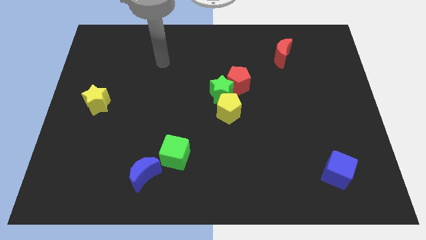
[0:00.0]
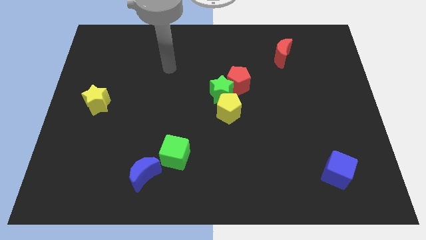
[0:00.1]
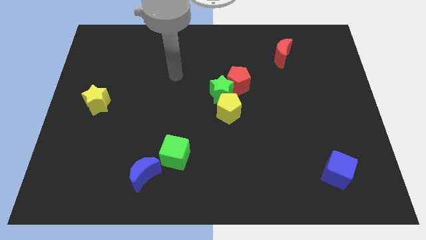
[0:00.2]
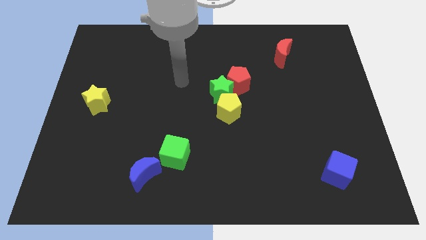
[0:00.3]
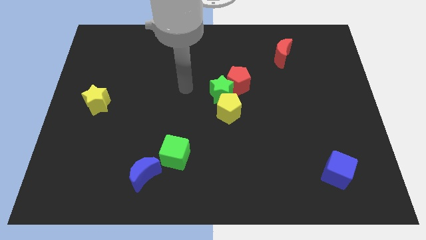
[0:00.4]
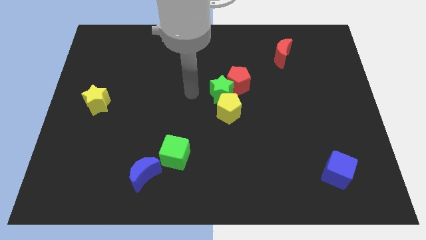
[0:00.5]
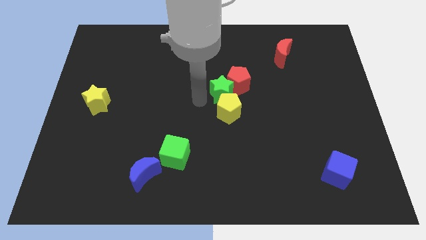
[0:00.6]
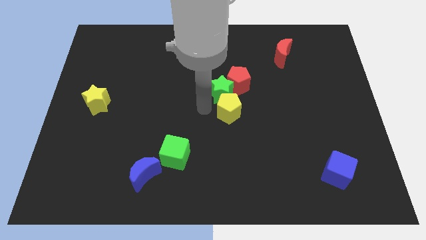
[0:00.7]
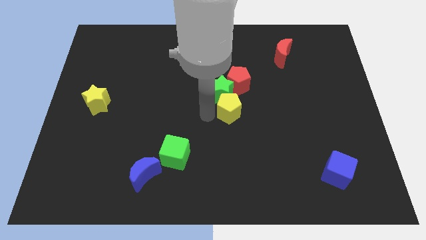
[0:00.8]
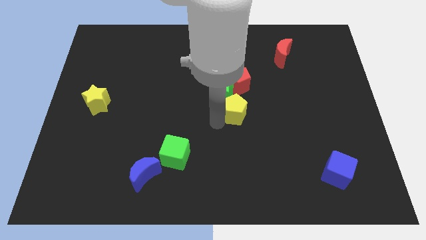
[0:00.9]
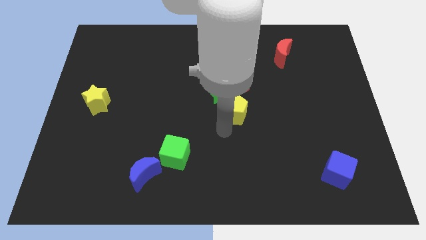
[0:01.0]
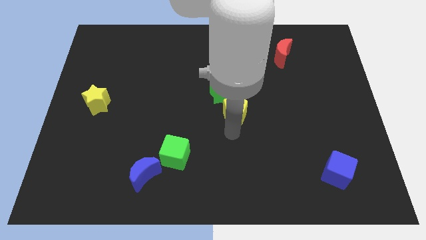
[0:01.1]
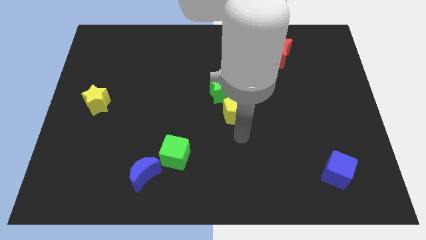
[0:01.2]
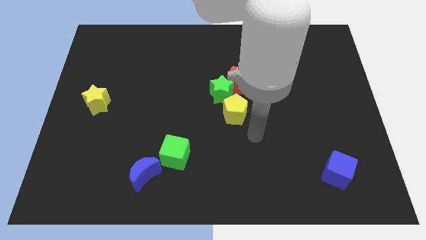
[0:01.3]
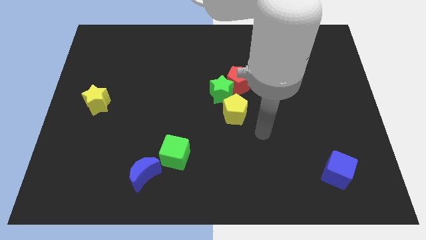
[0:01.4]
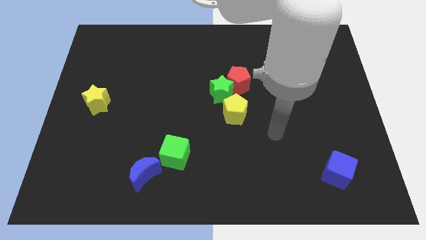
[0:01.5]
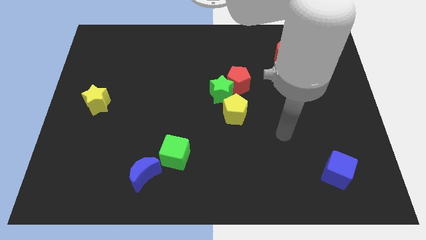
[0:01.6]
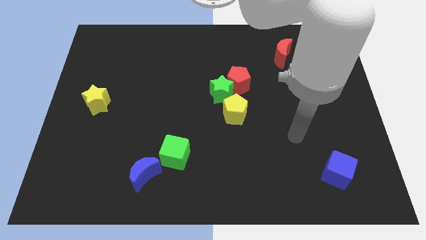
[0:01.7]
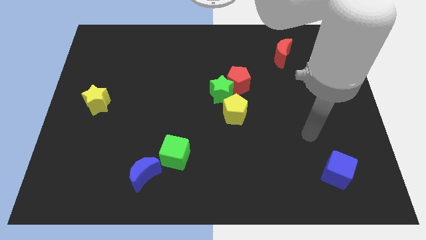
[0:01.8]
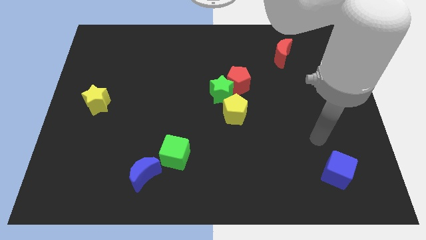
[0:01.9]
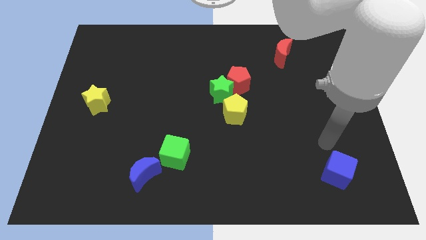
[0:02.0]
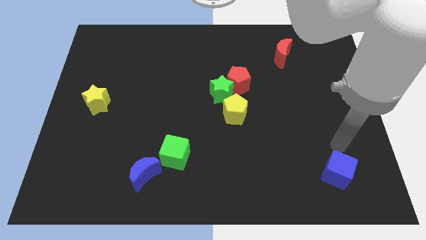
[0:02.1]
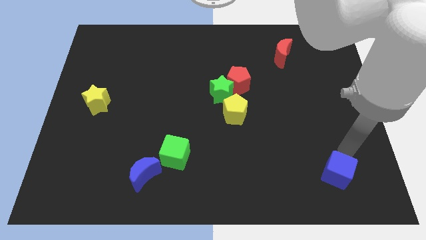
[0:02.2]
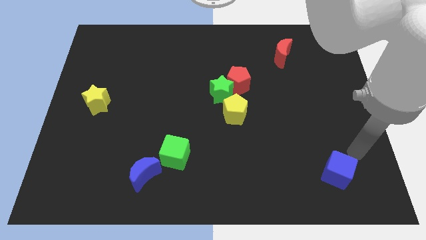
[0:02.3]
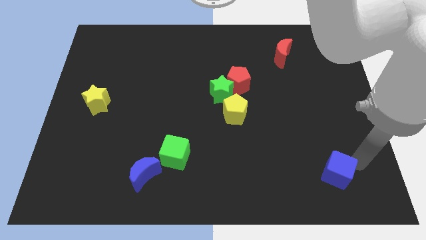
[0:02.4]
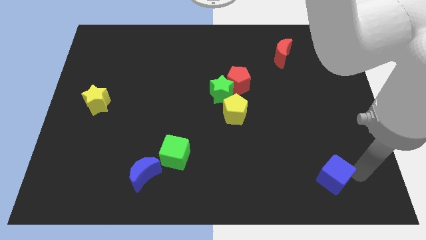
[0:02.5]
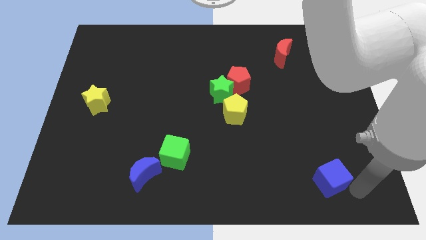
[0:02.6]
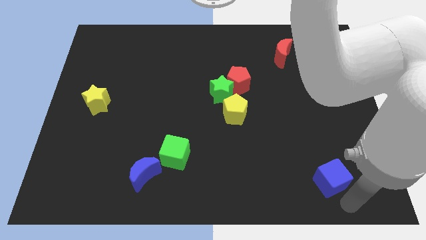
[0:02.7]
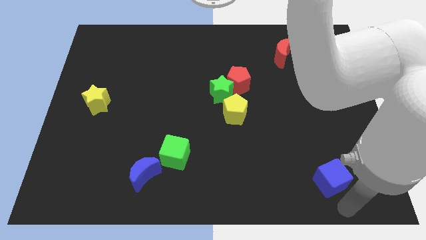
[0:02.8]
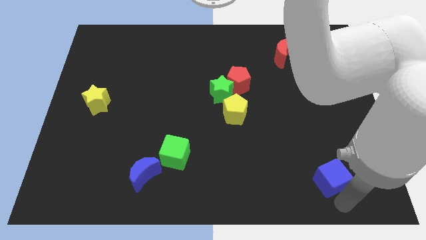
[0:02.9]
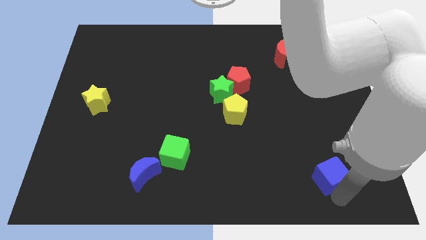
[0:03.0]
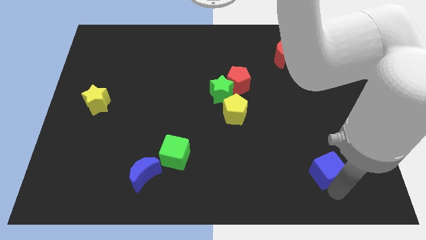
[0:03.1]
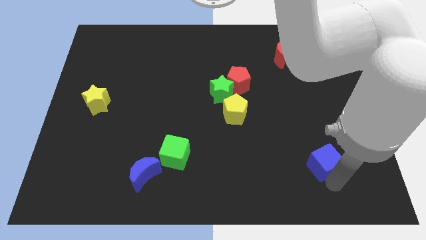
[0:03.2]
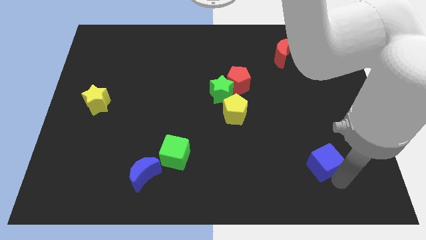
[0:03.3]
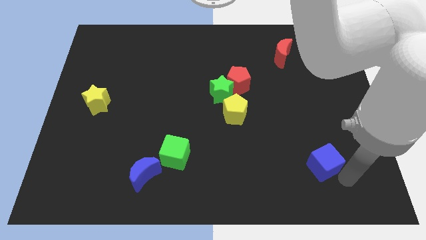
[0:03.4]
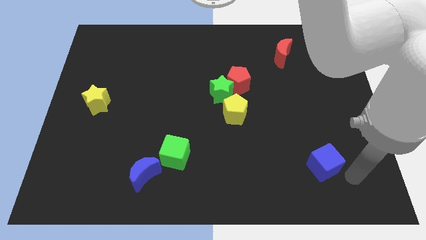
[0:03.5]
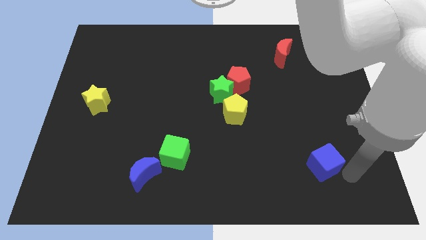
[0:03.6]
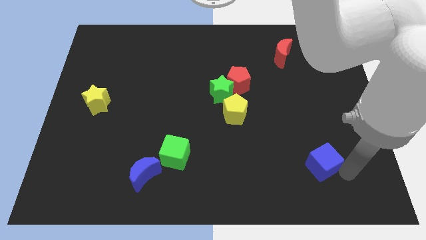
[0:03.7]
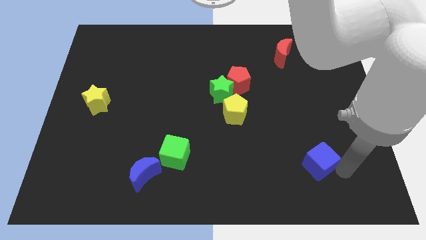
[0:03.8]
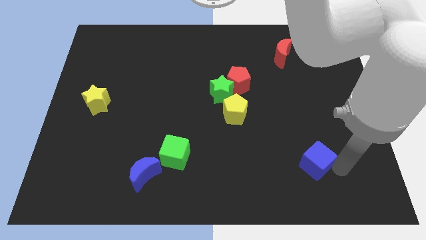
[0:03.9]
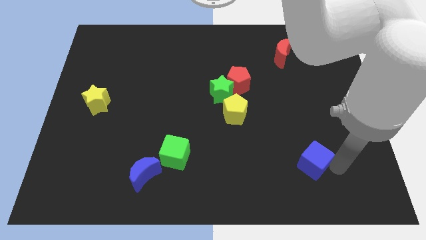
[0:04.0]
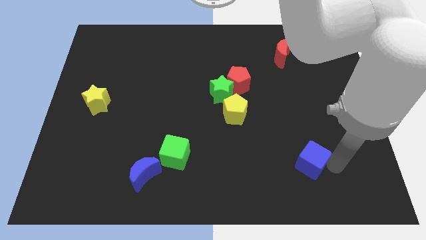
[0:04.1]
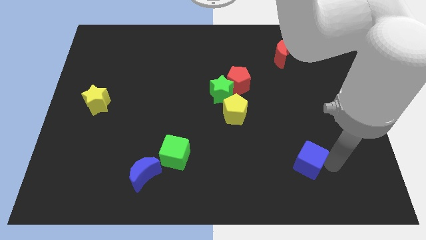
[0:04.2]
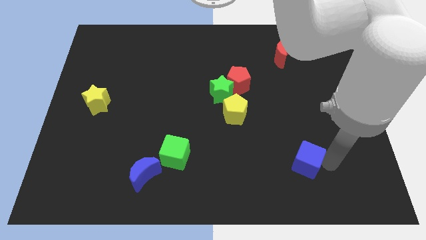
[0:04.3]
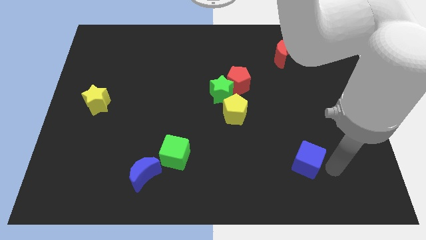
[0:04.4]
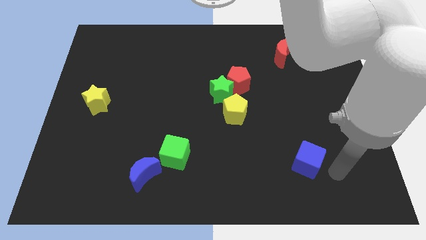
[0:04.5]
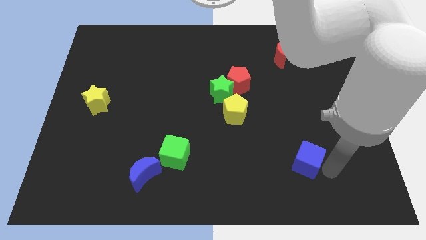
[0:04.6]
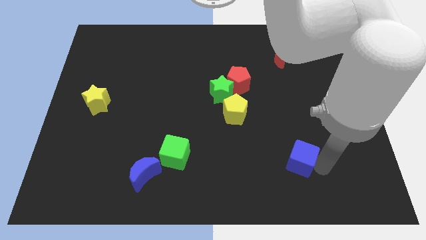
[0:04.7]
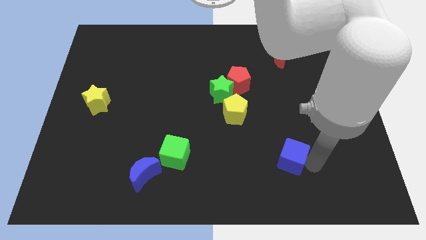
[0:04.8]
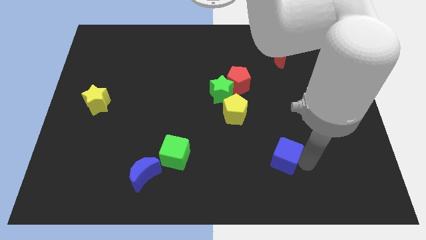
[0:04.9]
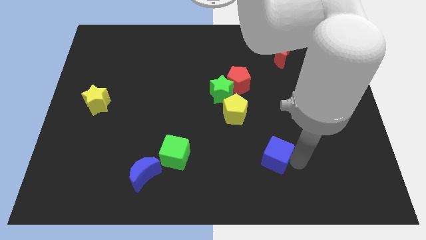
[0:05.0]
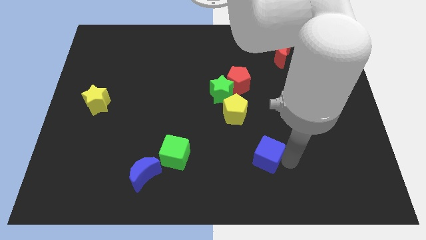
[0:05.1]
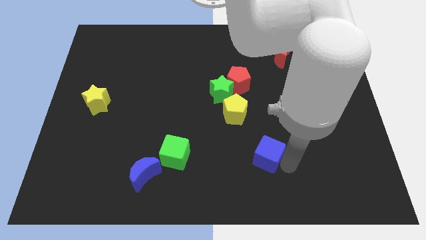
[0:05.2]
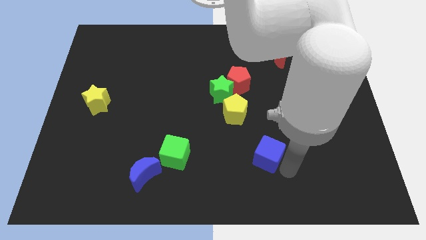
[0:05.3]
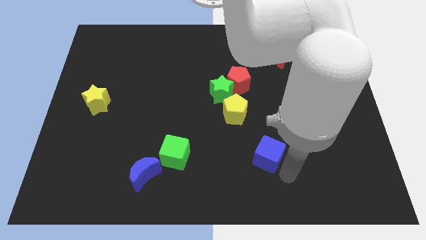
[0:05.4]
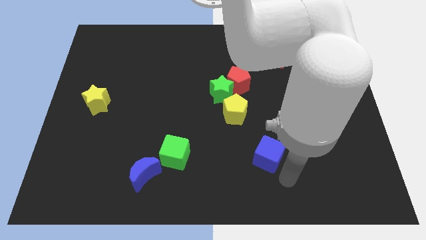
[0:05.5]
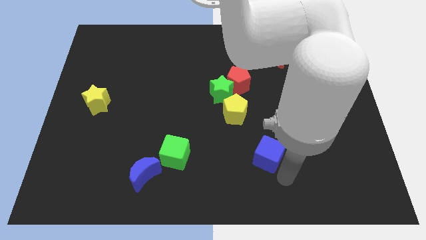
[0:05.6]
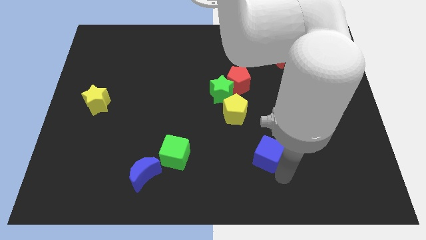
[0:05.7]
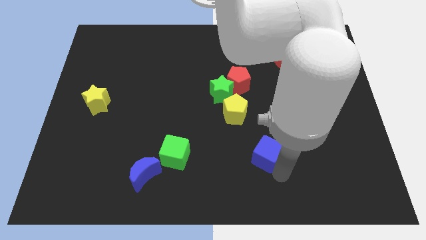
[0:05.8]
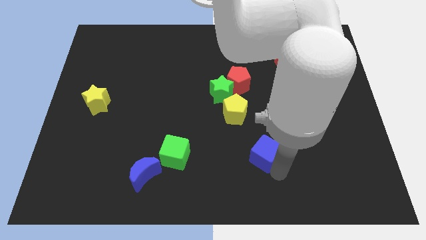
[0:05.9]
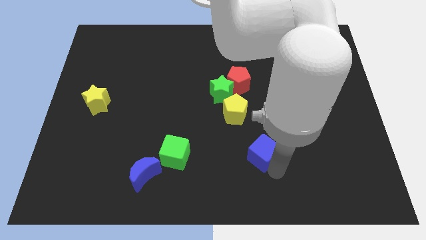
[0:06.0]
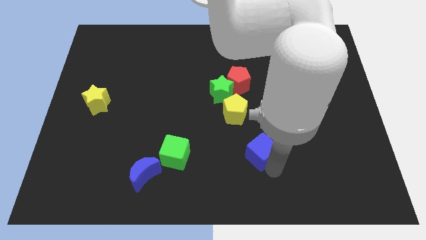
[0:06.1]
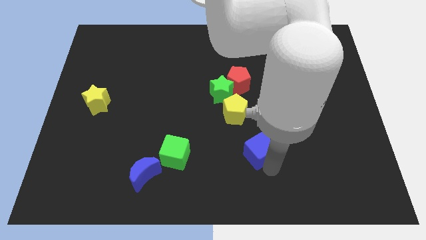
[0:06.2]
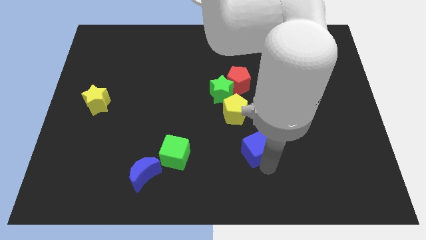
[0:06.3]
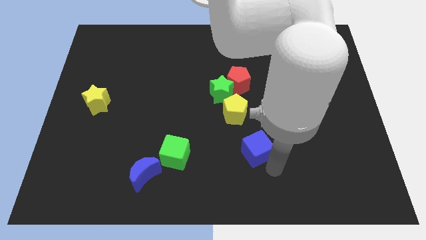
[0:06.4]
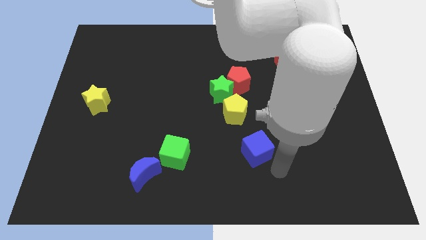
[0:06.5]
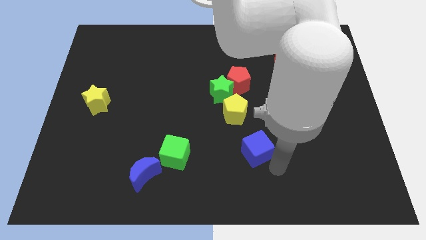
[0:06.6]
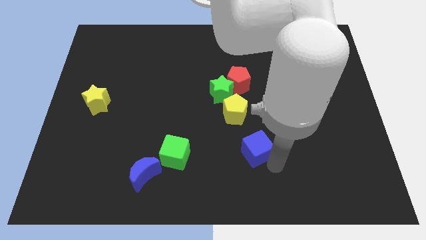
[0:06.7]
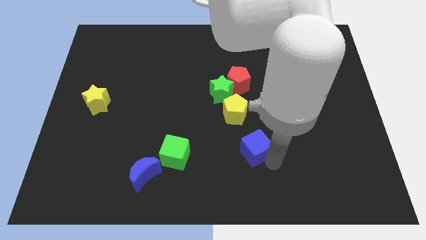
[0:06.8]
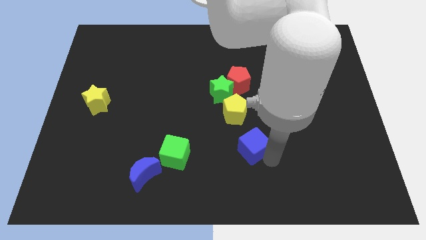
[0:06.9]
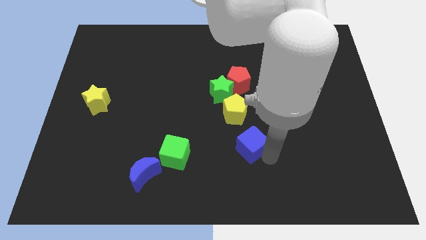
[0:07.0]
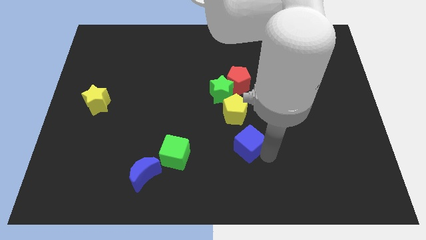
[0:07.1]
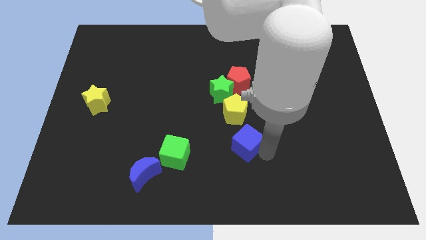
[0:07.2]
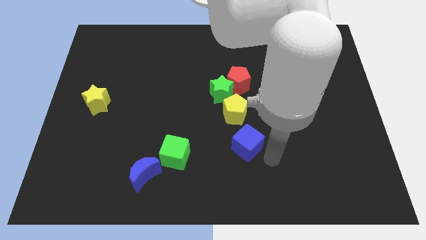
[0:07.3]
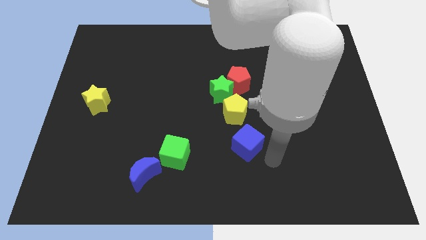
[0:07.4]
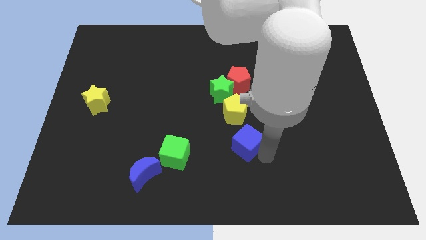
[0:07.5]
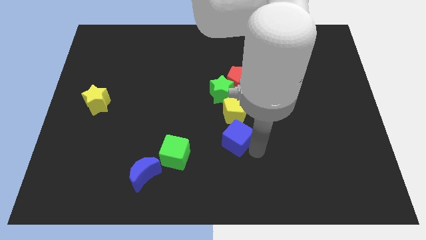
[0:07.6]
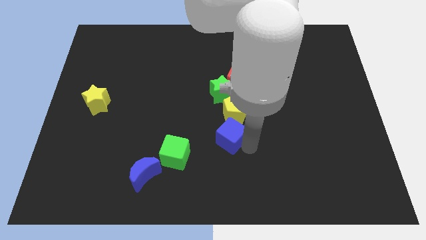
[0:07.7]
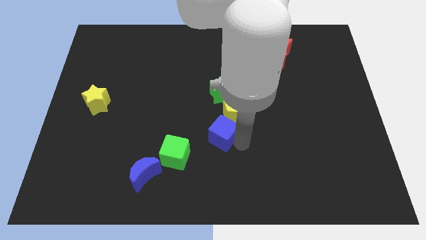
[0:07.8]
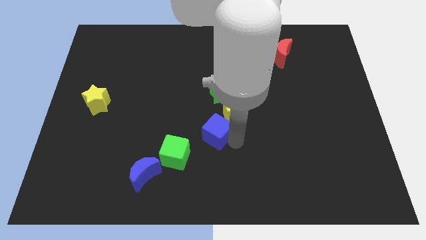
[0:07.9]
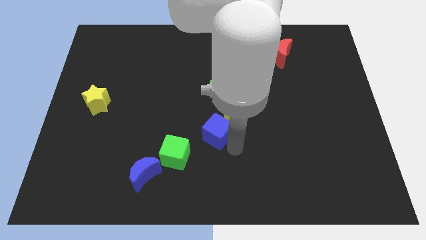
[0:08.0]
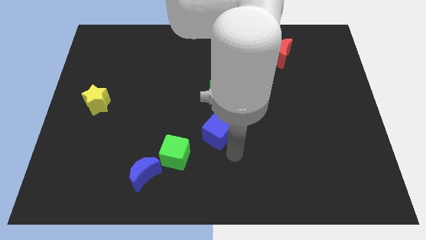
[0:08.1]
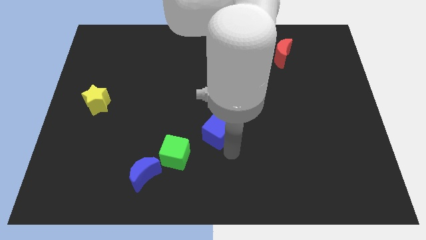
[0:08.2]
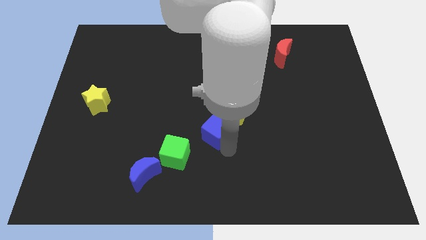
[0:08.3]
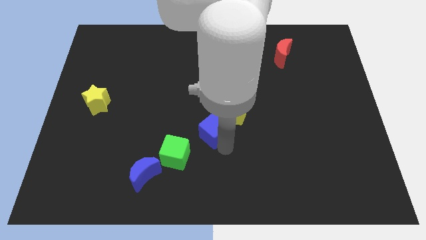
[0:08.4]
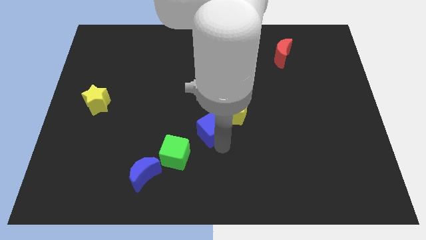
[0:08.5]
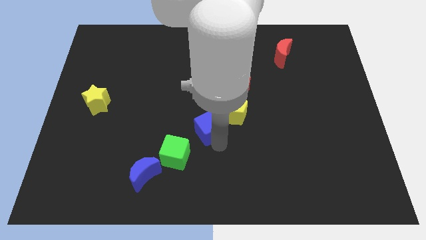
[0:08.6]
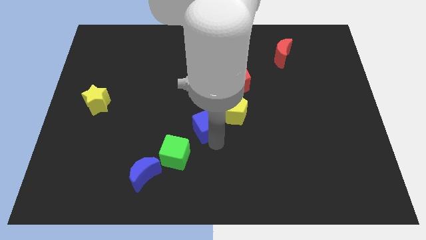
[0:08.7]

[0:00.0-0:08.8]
put the blue cube to the bottom left of the green star
